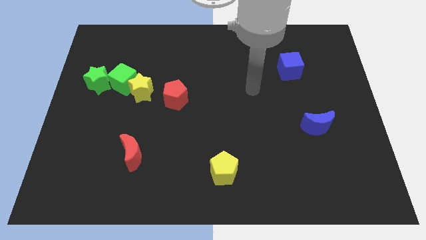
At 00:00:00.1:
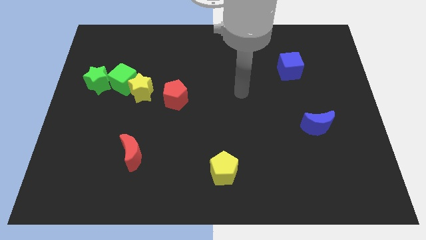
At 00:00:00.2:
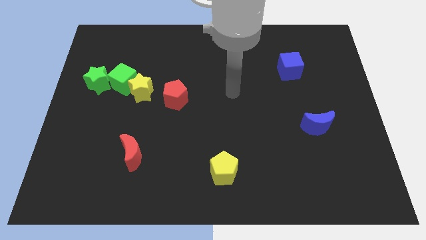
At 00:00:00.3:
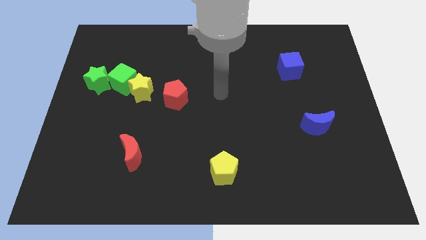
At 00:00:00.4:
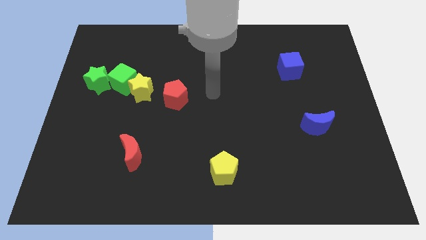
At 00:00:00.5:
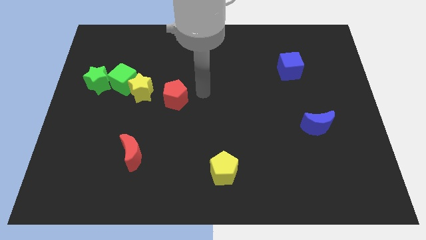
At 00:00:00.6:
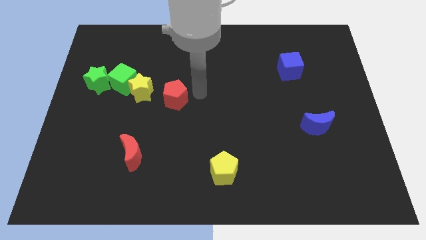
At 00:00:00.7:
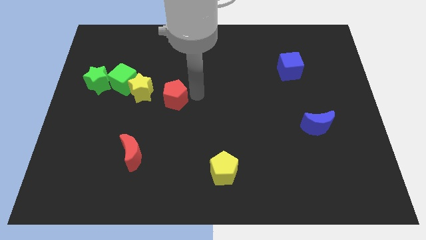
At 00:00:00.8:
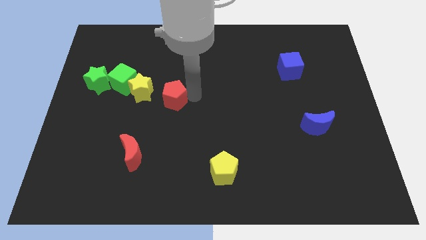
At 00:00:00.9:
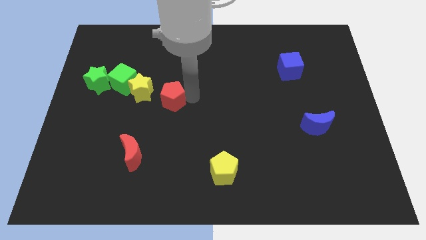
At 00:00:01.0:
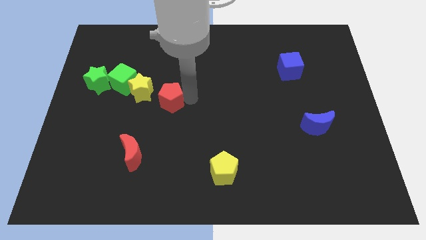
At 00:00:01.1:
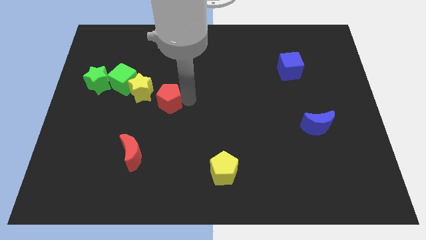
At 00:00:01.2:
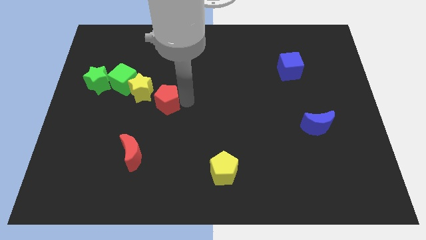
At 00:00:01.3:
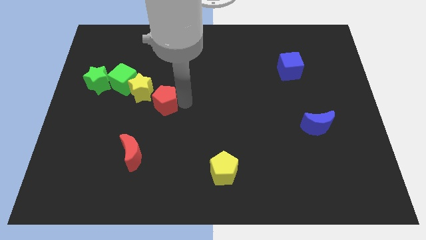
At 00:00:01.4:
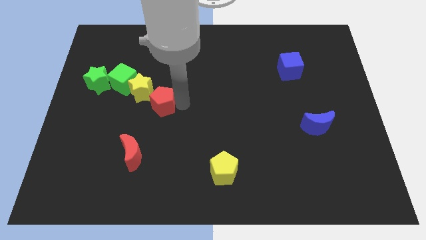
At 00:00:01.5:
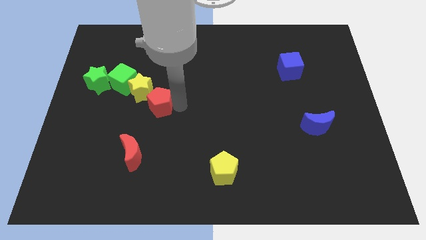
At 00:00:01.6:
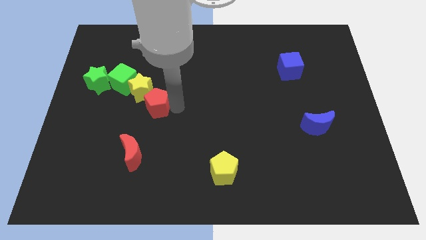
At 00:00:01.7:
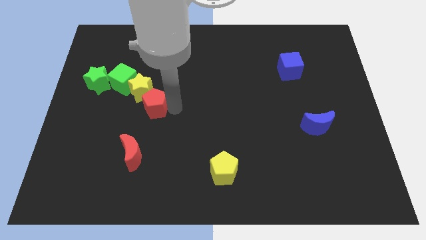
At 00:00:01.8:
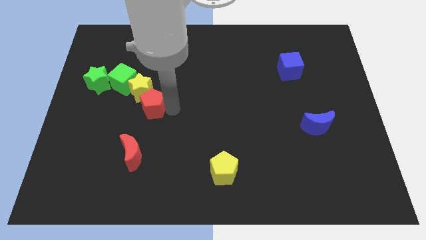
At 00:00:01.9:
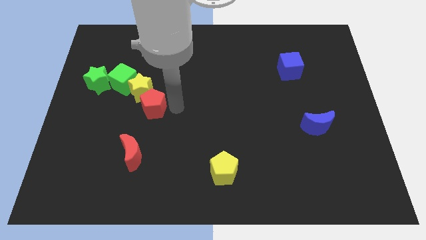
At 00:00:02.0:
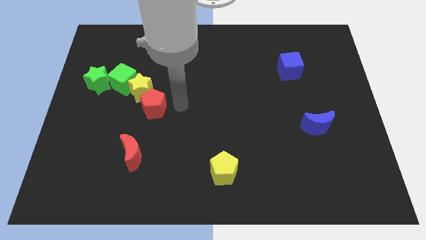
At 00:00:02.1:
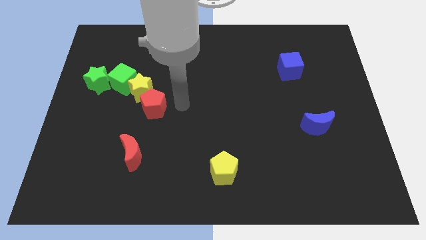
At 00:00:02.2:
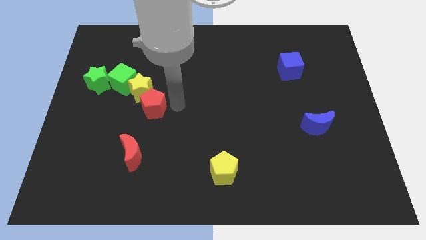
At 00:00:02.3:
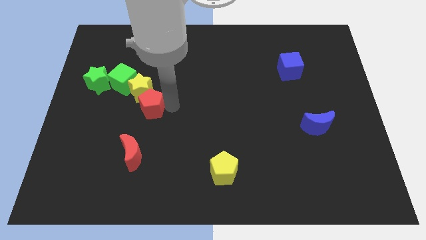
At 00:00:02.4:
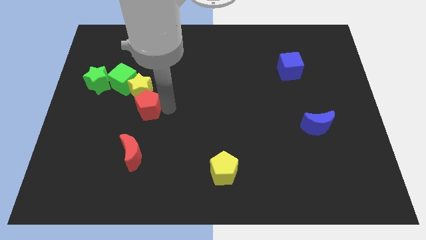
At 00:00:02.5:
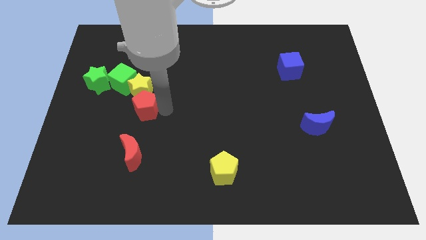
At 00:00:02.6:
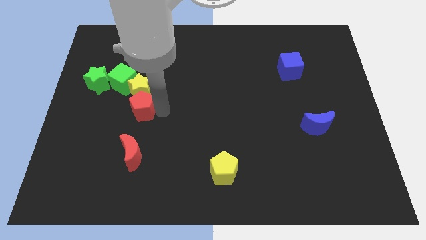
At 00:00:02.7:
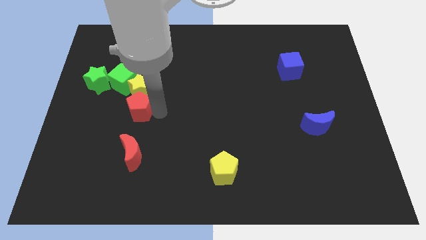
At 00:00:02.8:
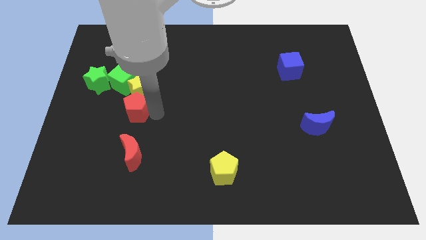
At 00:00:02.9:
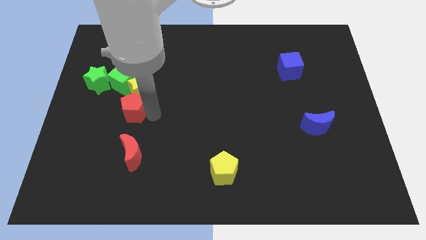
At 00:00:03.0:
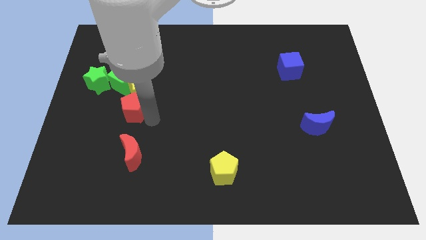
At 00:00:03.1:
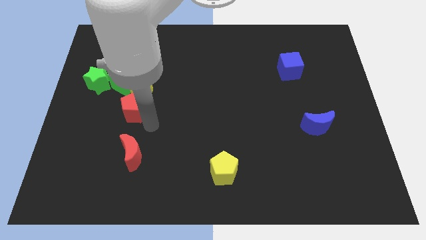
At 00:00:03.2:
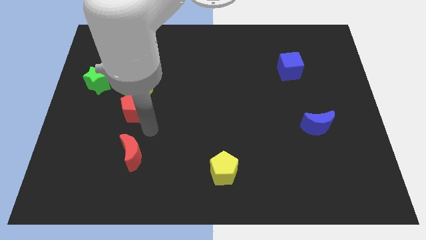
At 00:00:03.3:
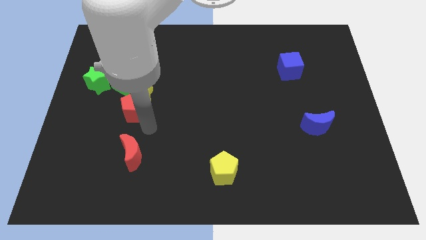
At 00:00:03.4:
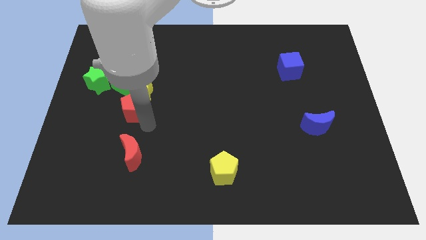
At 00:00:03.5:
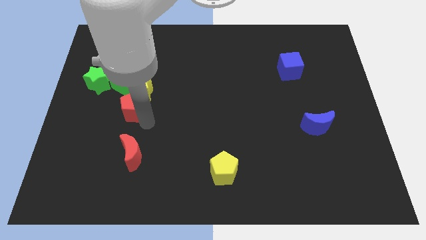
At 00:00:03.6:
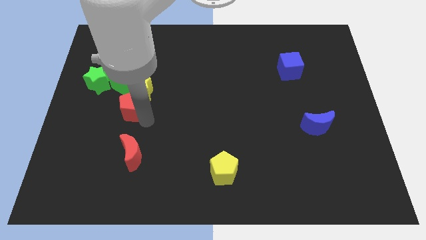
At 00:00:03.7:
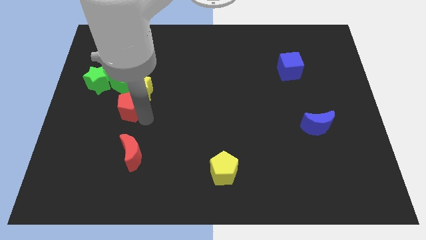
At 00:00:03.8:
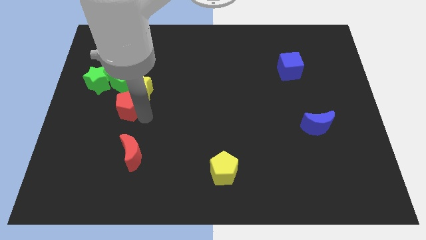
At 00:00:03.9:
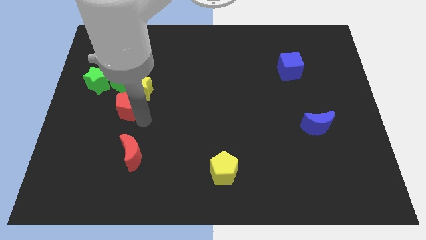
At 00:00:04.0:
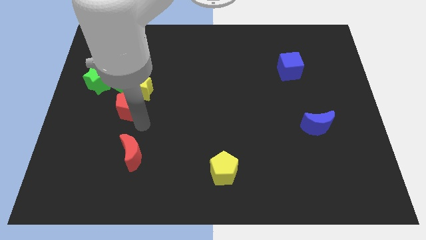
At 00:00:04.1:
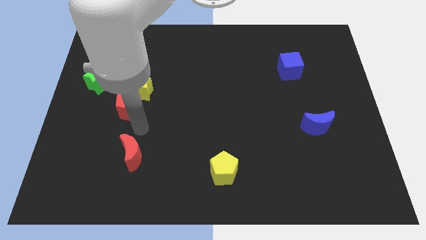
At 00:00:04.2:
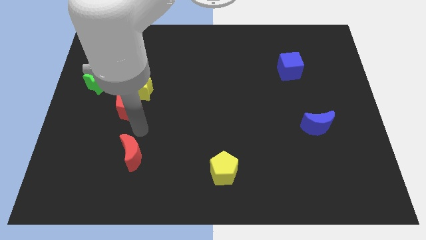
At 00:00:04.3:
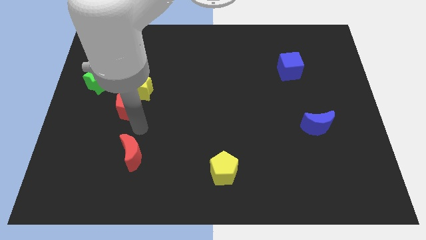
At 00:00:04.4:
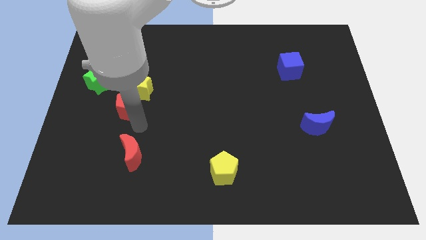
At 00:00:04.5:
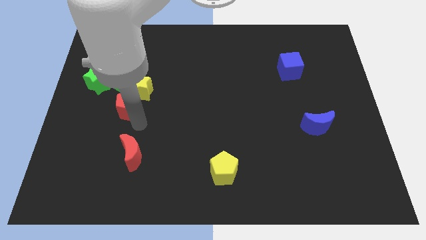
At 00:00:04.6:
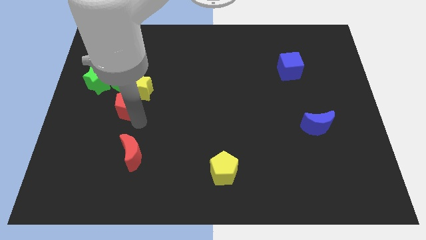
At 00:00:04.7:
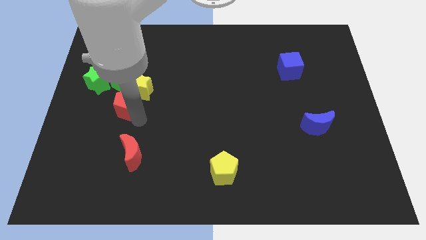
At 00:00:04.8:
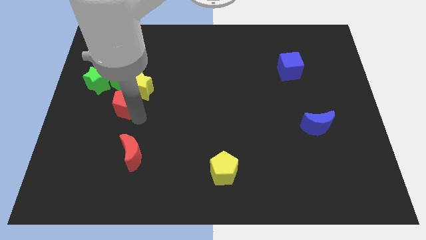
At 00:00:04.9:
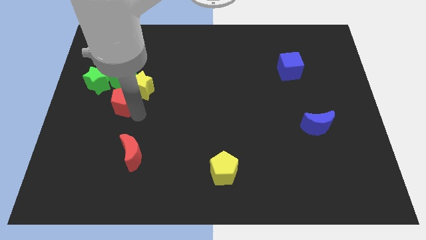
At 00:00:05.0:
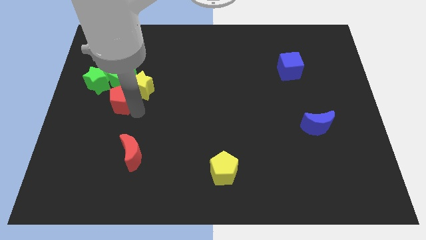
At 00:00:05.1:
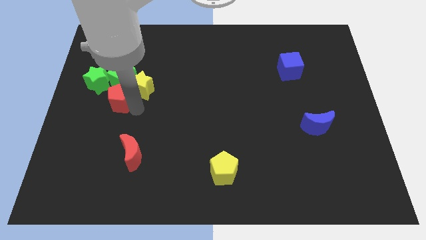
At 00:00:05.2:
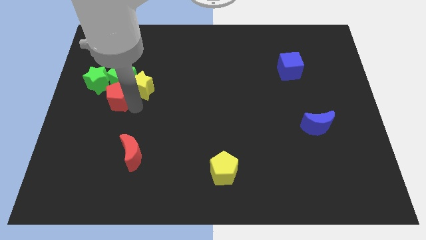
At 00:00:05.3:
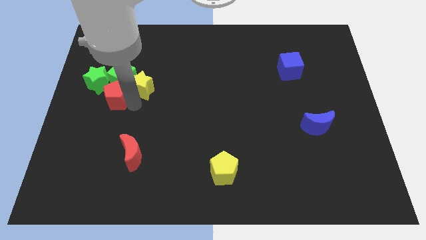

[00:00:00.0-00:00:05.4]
push the red pentagon to the green cube
